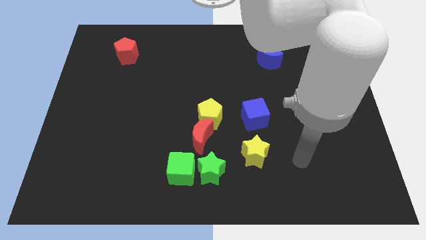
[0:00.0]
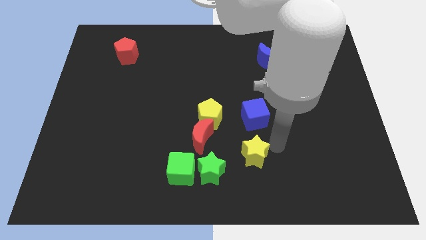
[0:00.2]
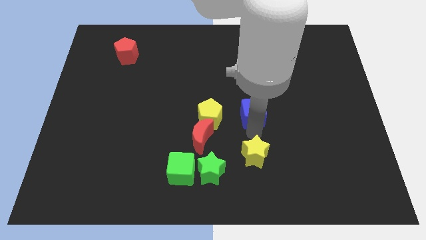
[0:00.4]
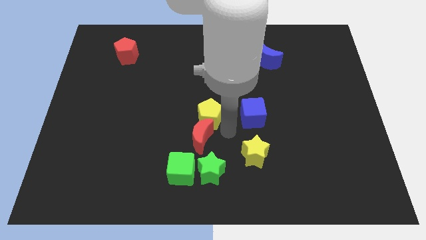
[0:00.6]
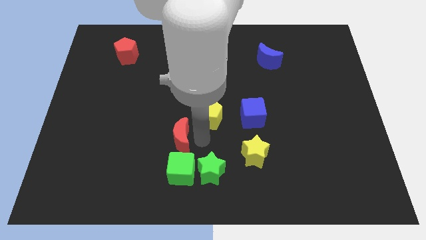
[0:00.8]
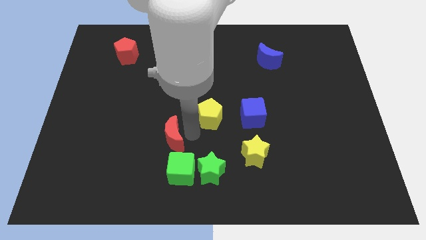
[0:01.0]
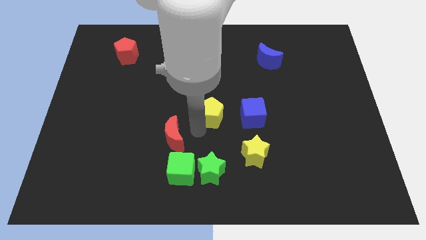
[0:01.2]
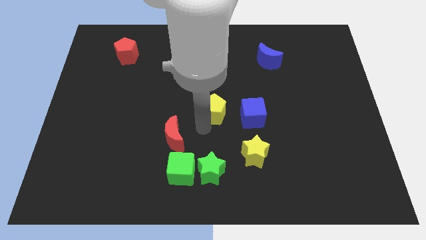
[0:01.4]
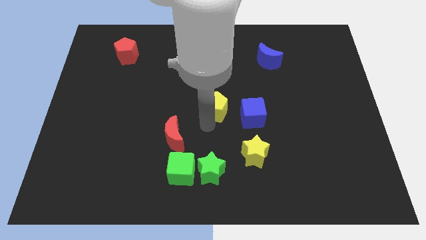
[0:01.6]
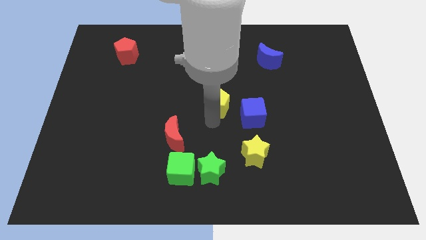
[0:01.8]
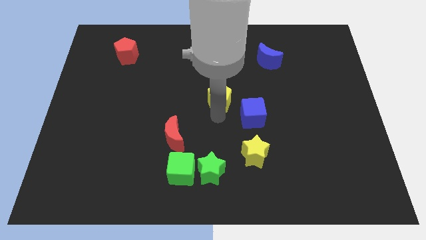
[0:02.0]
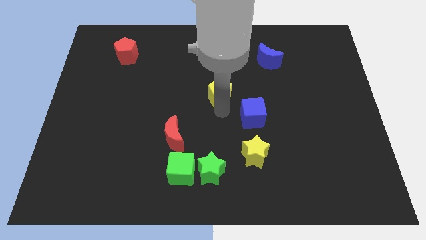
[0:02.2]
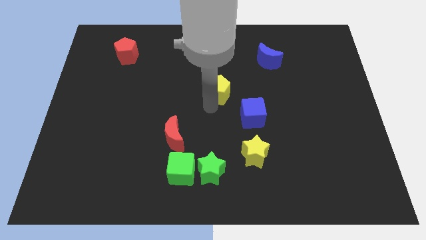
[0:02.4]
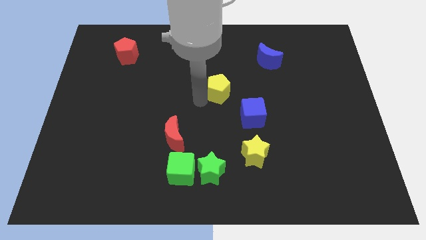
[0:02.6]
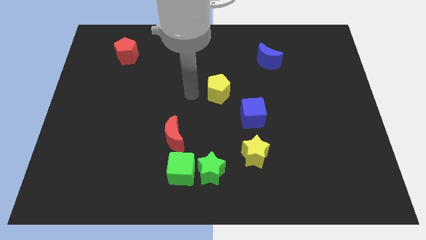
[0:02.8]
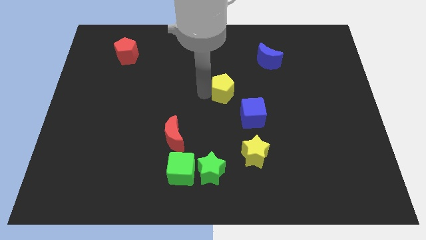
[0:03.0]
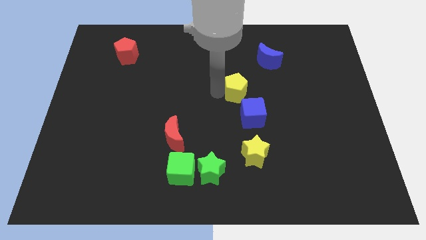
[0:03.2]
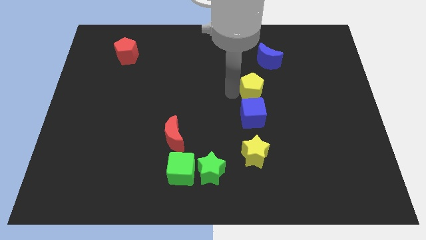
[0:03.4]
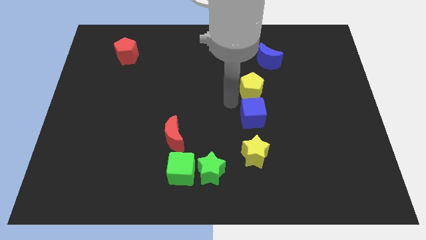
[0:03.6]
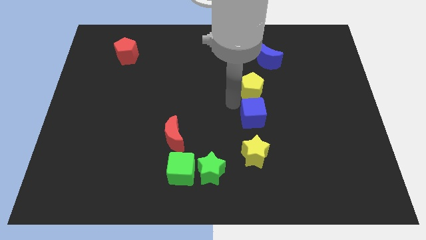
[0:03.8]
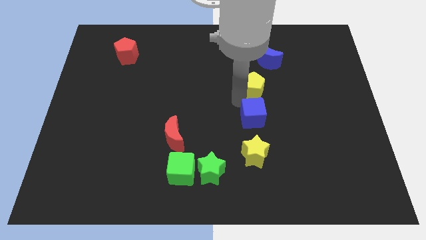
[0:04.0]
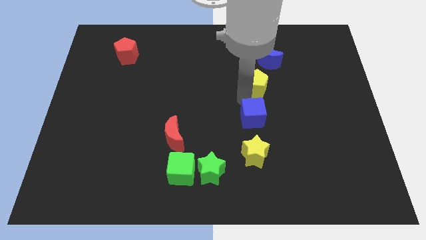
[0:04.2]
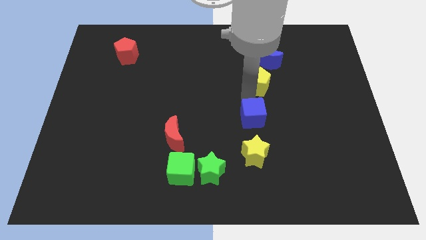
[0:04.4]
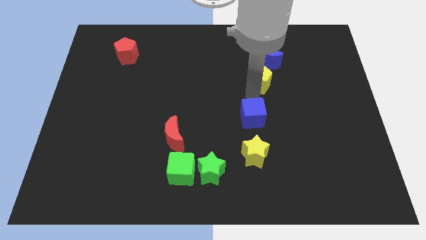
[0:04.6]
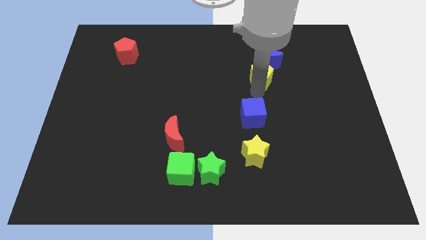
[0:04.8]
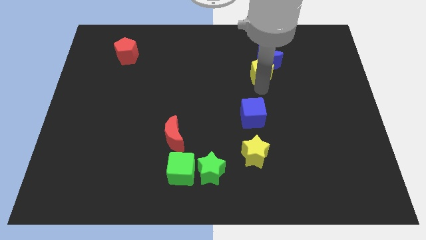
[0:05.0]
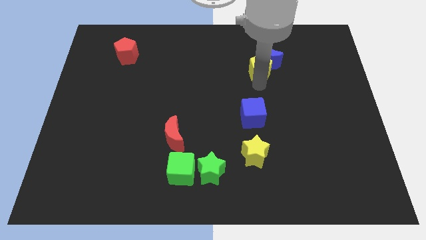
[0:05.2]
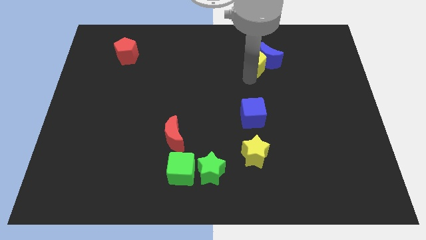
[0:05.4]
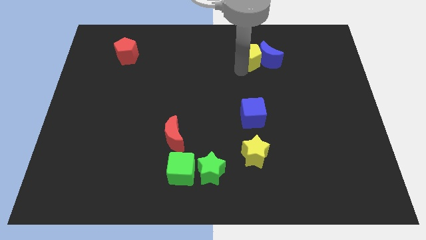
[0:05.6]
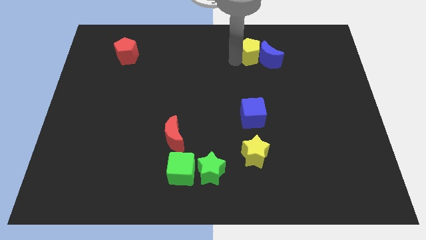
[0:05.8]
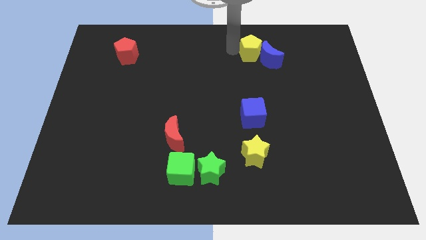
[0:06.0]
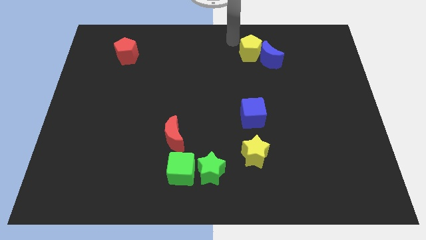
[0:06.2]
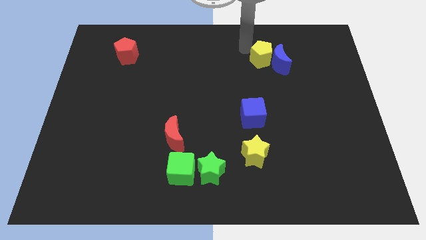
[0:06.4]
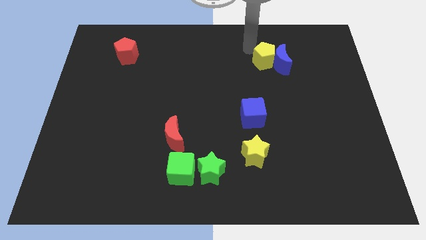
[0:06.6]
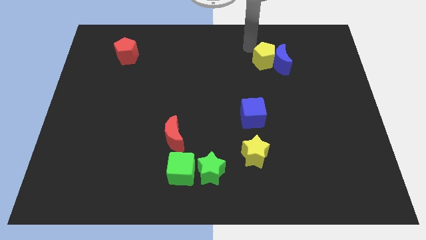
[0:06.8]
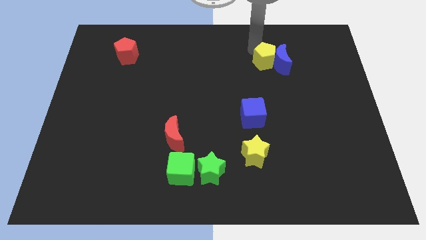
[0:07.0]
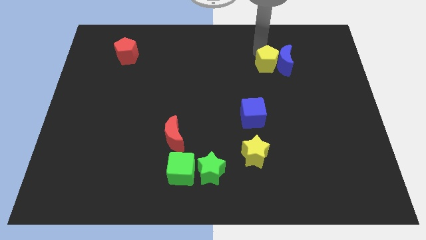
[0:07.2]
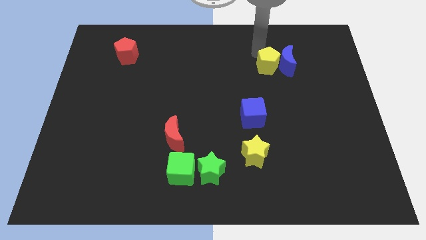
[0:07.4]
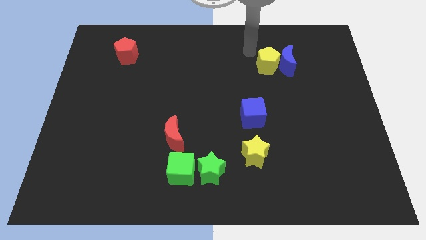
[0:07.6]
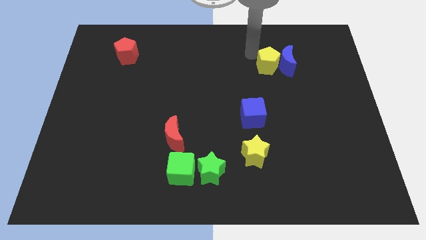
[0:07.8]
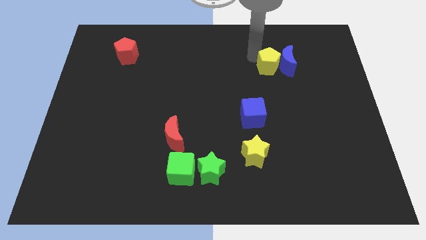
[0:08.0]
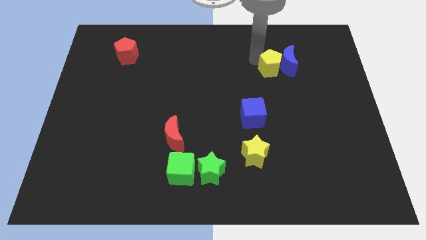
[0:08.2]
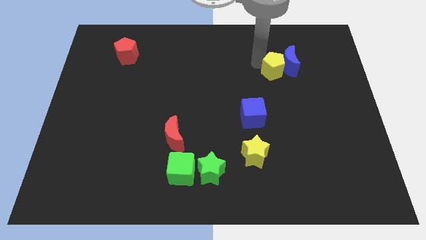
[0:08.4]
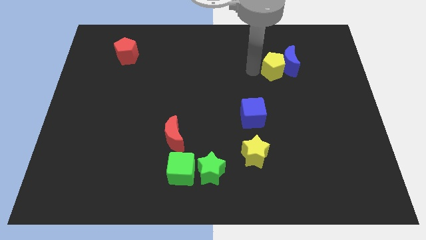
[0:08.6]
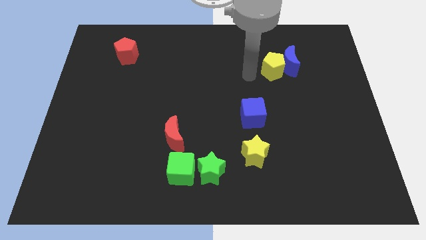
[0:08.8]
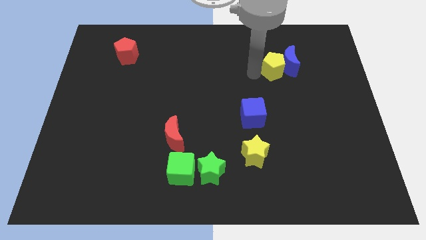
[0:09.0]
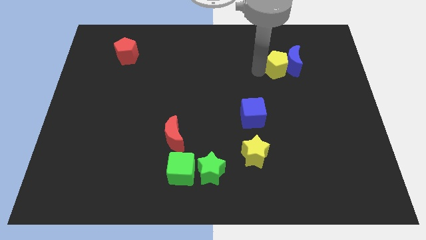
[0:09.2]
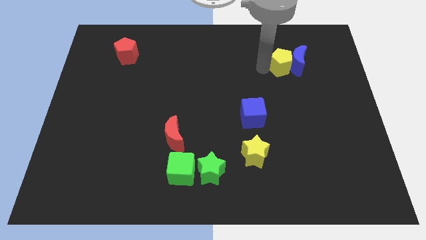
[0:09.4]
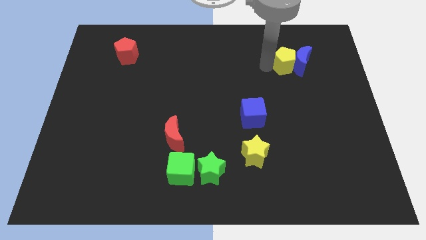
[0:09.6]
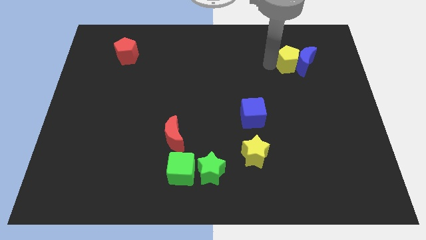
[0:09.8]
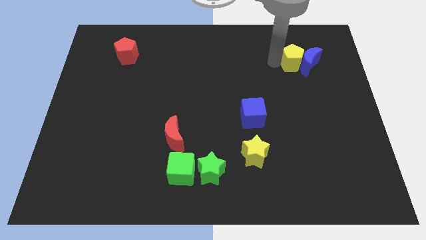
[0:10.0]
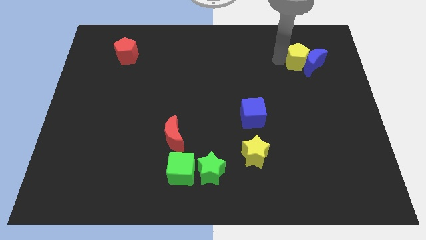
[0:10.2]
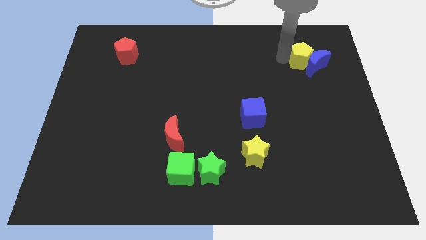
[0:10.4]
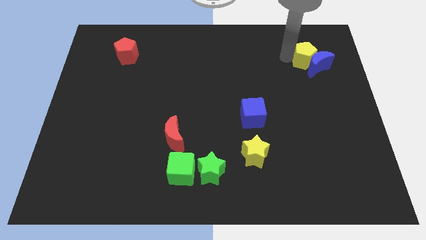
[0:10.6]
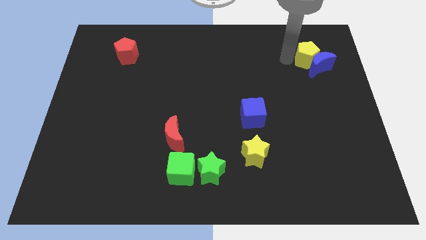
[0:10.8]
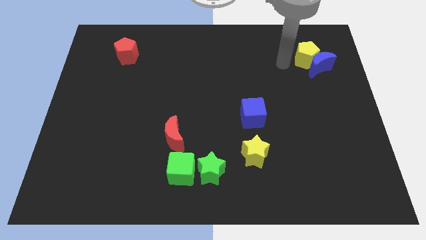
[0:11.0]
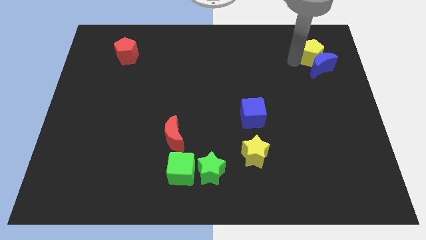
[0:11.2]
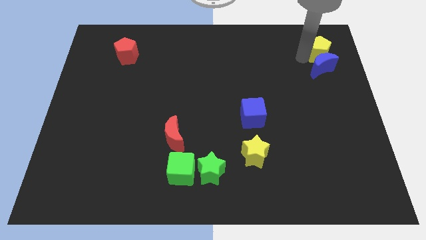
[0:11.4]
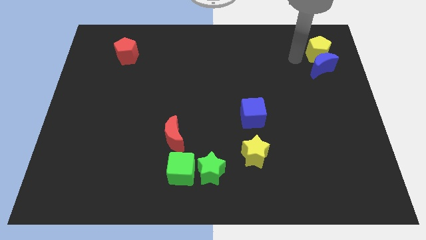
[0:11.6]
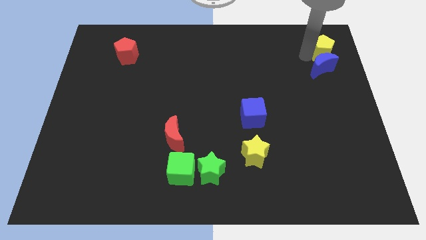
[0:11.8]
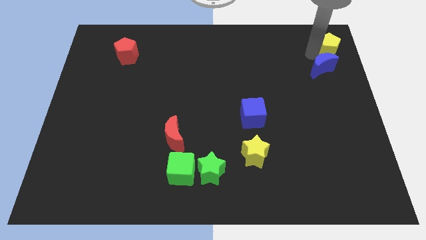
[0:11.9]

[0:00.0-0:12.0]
put the yellow pentagon to the top right corner
